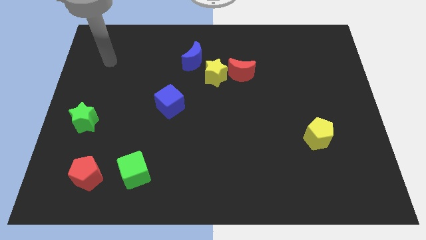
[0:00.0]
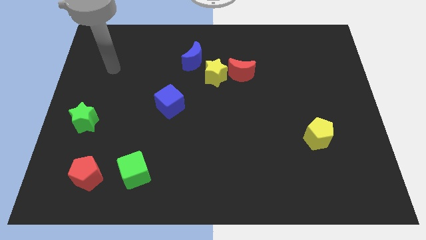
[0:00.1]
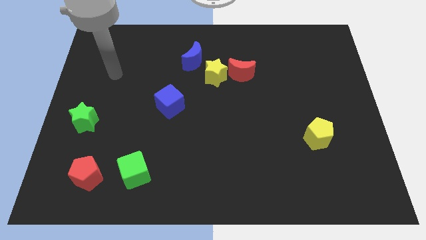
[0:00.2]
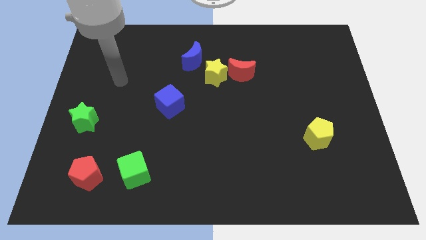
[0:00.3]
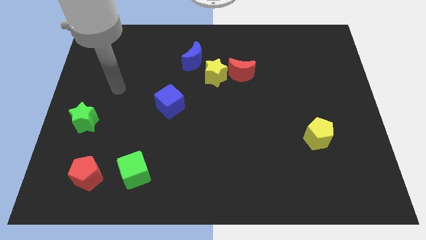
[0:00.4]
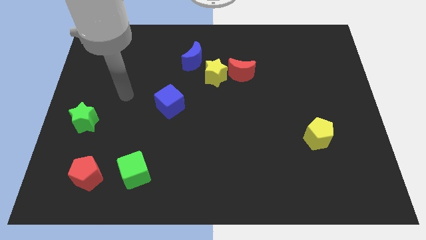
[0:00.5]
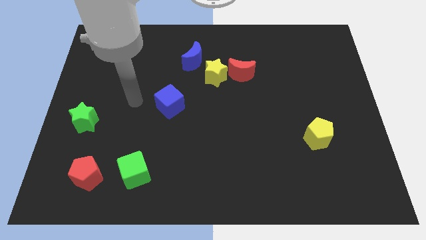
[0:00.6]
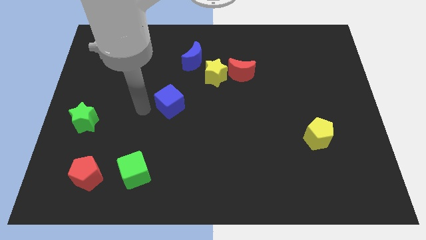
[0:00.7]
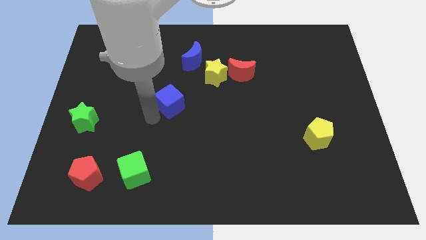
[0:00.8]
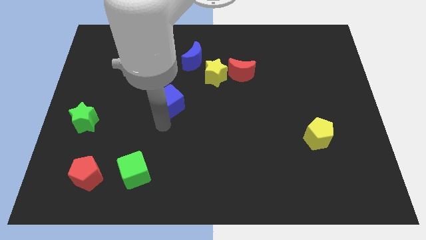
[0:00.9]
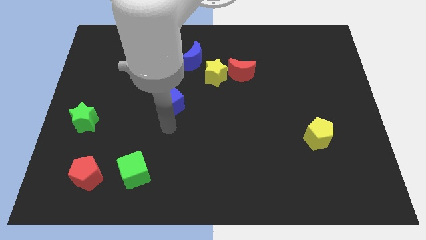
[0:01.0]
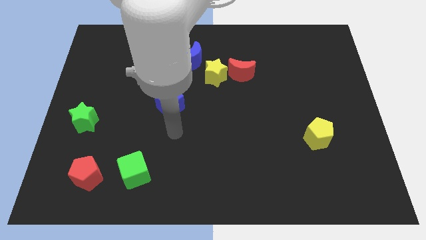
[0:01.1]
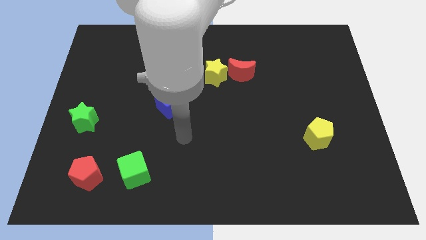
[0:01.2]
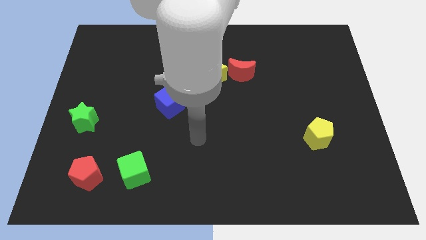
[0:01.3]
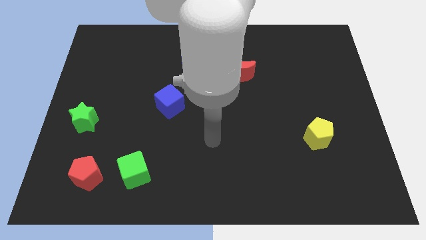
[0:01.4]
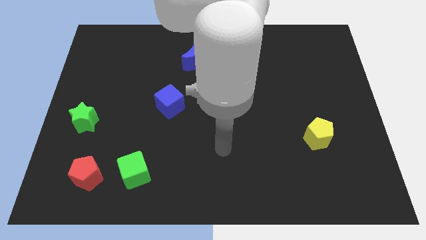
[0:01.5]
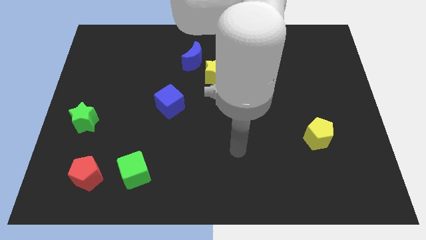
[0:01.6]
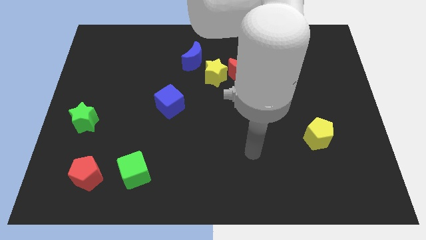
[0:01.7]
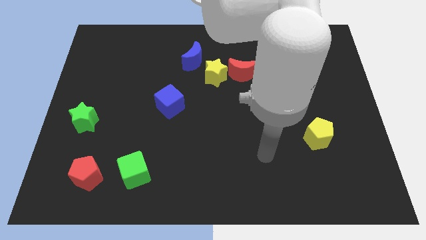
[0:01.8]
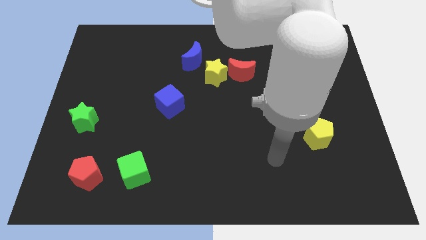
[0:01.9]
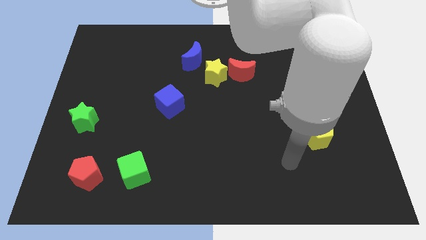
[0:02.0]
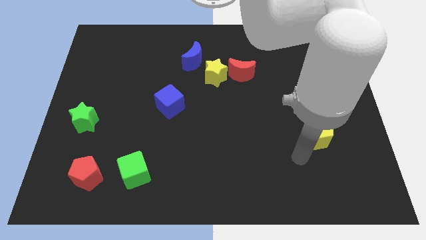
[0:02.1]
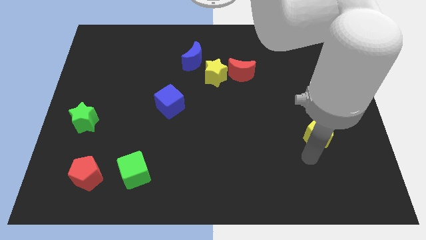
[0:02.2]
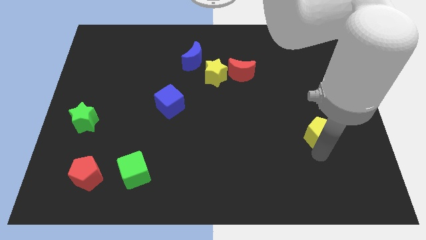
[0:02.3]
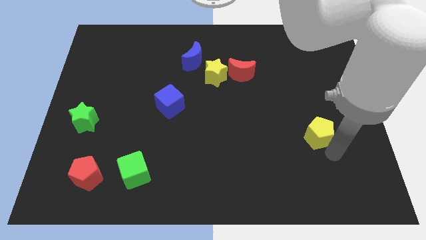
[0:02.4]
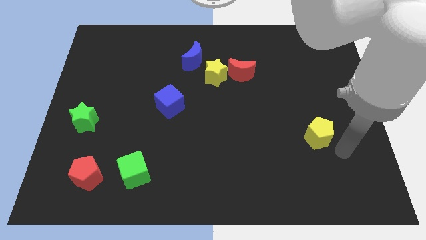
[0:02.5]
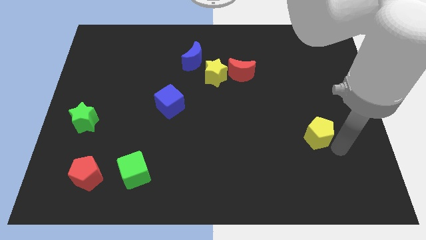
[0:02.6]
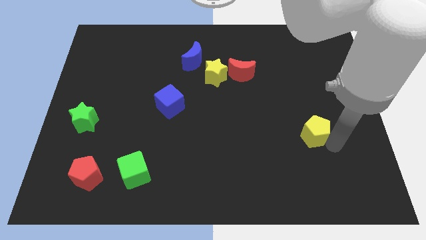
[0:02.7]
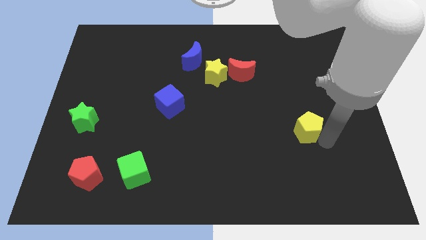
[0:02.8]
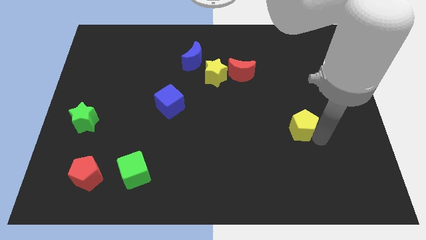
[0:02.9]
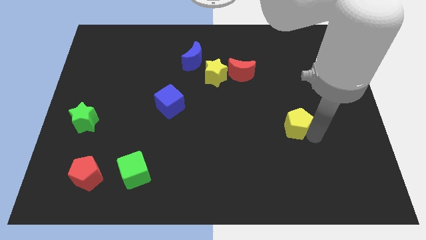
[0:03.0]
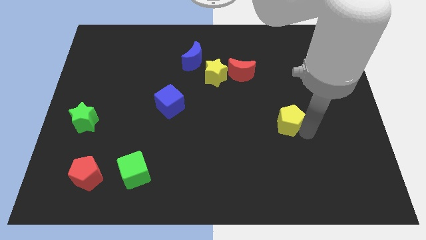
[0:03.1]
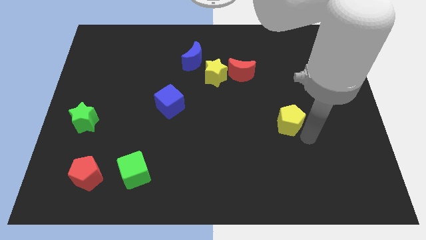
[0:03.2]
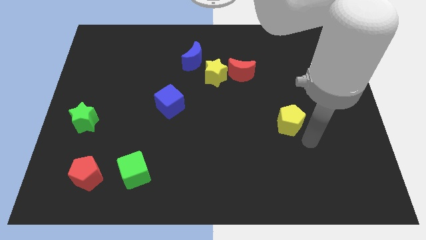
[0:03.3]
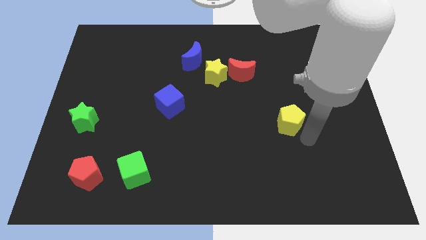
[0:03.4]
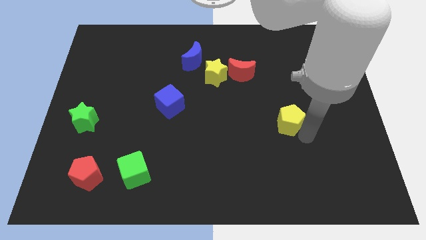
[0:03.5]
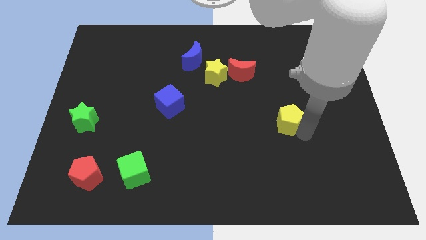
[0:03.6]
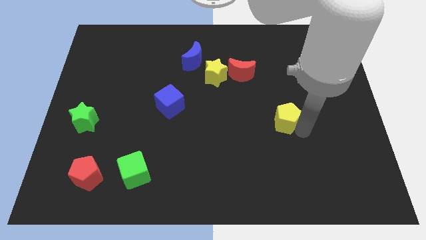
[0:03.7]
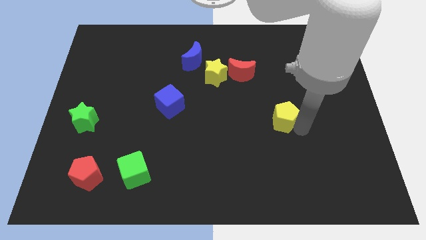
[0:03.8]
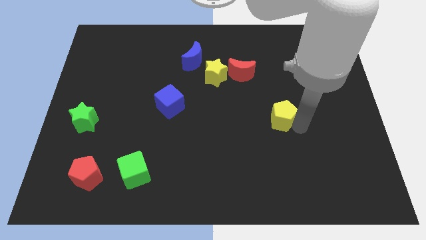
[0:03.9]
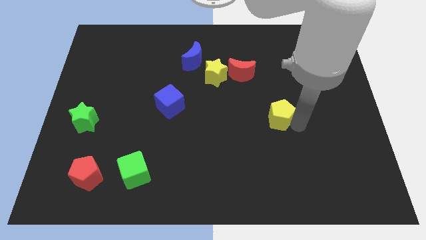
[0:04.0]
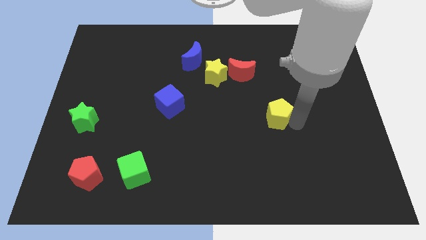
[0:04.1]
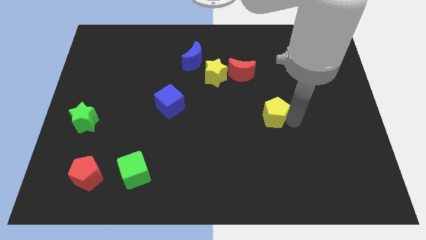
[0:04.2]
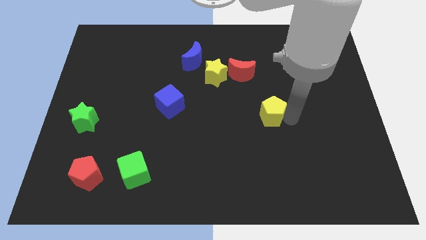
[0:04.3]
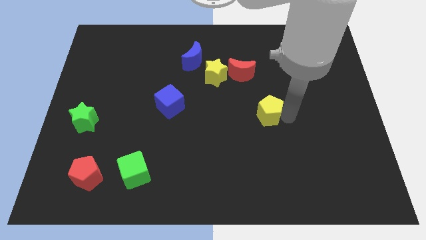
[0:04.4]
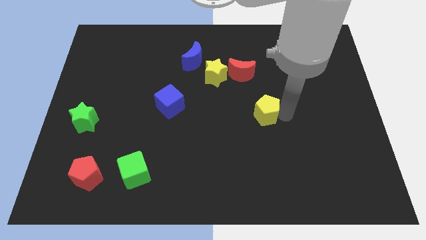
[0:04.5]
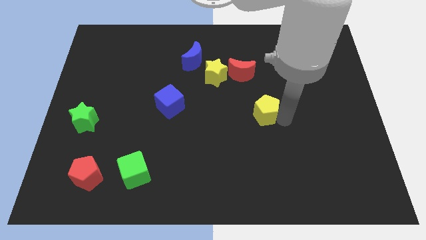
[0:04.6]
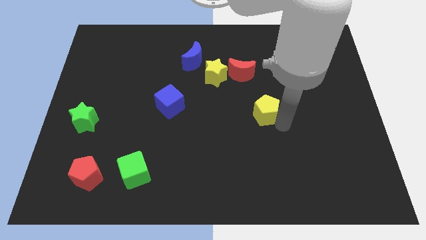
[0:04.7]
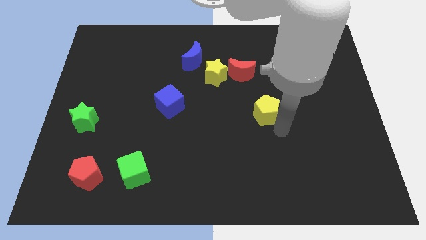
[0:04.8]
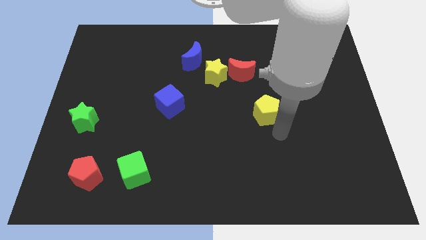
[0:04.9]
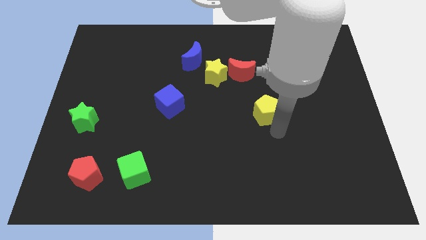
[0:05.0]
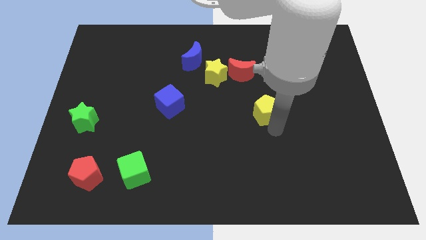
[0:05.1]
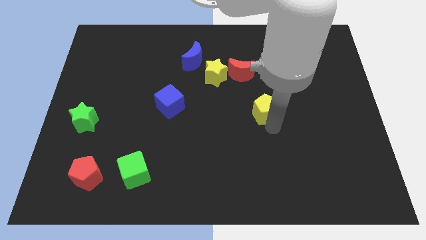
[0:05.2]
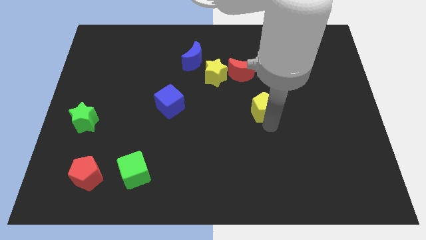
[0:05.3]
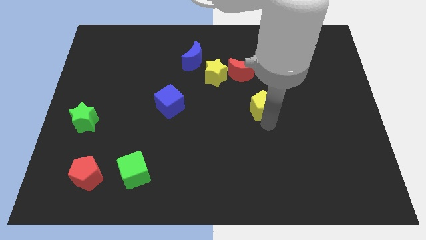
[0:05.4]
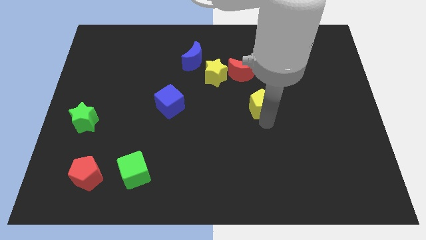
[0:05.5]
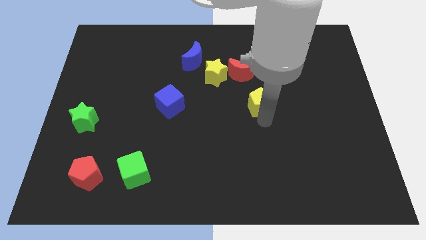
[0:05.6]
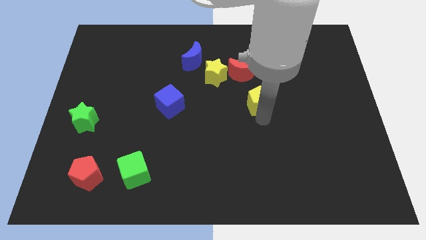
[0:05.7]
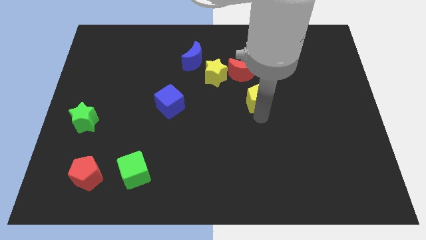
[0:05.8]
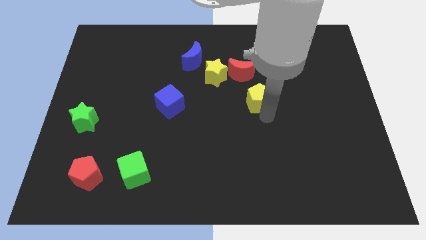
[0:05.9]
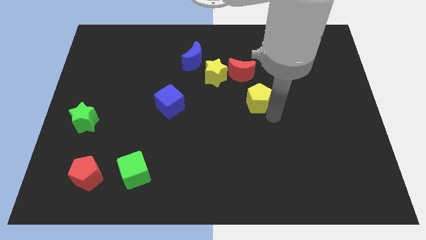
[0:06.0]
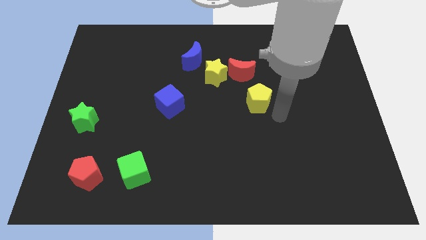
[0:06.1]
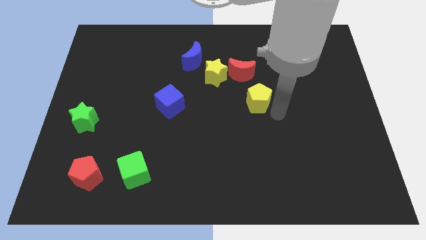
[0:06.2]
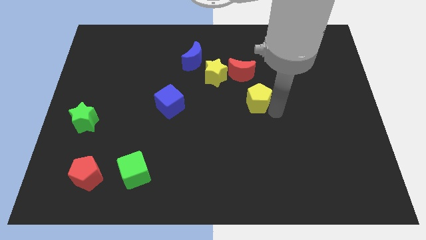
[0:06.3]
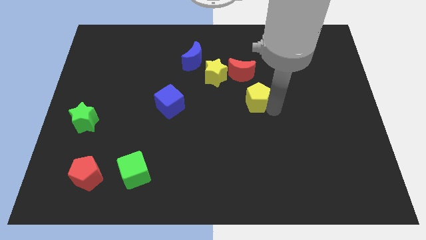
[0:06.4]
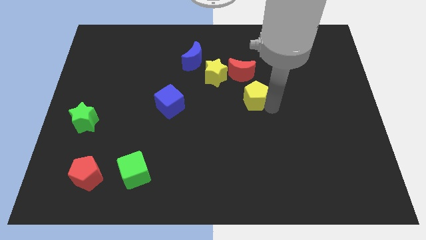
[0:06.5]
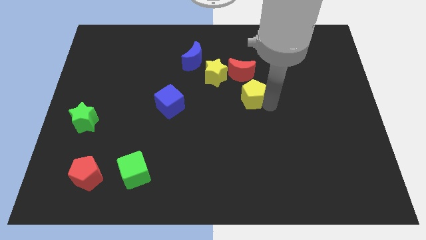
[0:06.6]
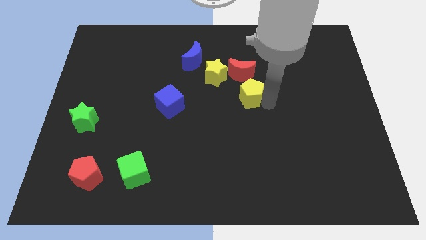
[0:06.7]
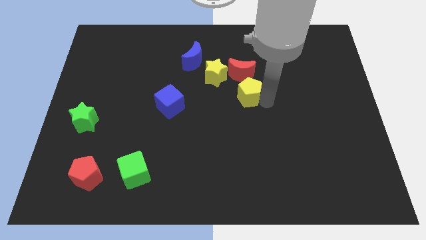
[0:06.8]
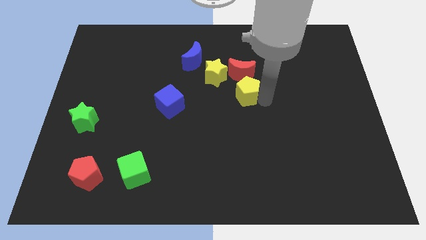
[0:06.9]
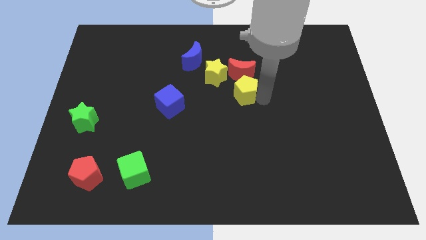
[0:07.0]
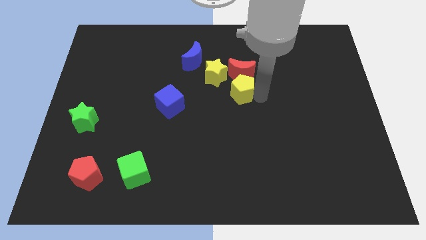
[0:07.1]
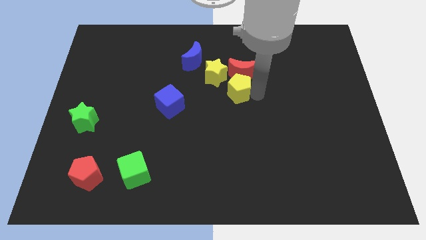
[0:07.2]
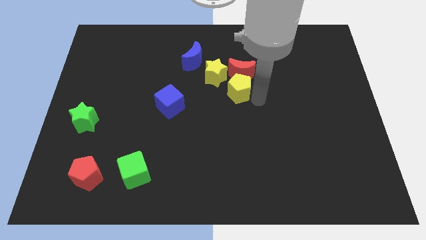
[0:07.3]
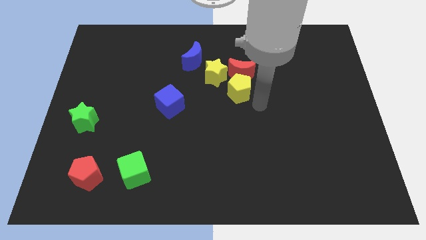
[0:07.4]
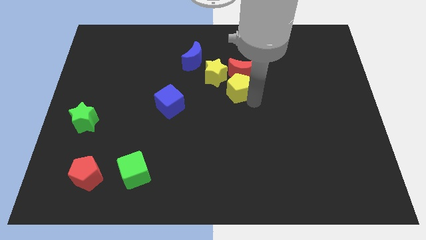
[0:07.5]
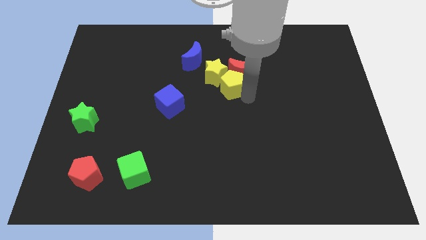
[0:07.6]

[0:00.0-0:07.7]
put the yellow pentagon towards the yellow star
